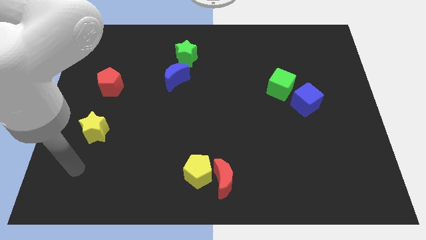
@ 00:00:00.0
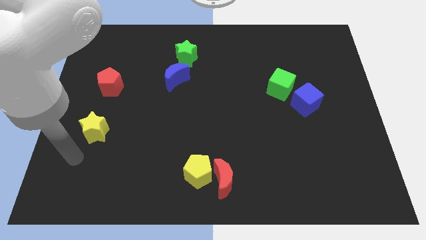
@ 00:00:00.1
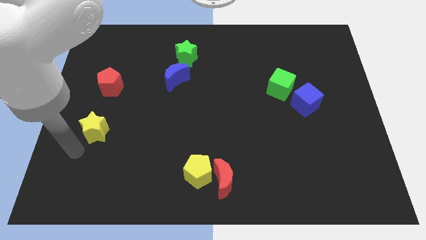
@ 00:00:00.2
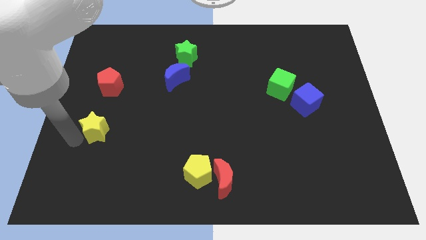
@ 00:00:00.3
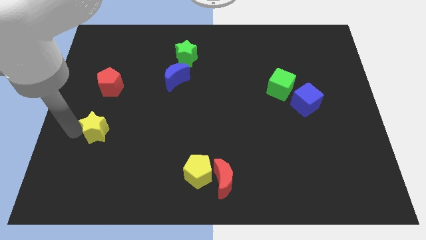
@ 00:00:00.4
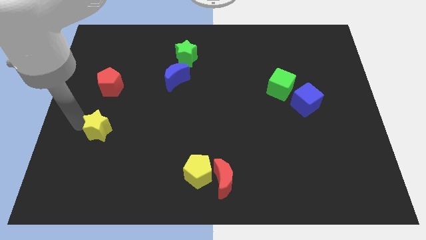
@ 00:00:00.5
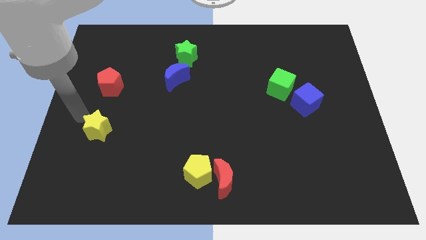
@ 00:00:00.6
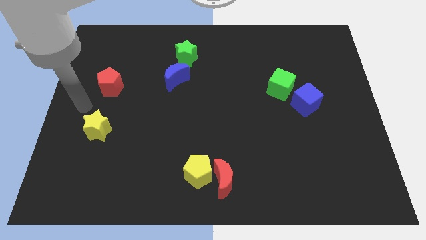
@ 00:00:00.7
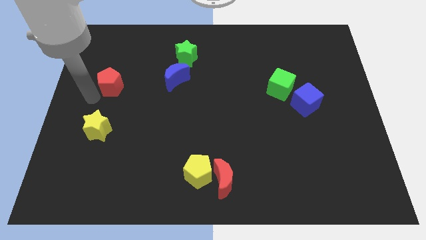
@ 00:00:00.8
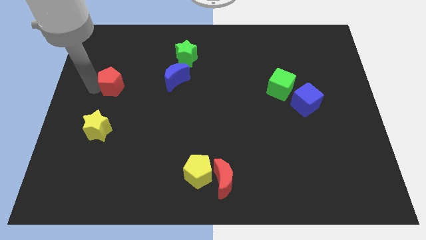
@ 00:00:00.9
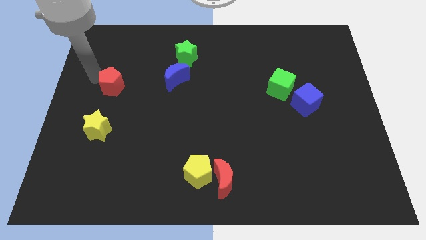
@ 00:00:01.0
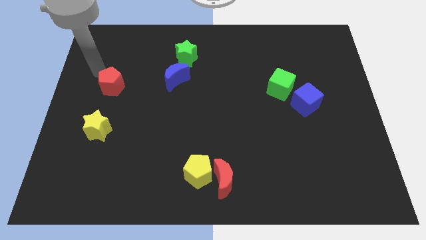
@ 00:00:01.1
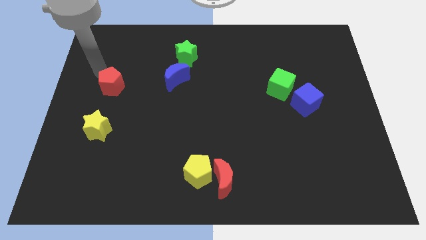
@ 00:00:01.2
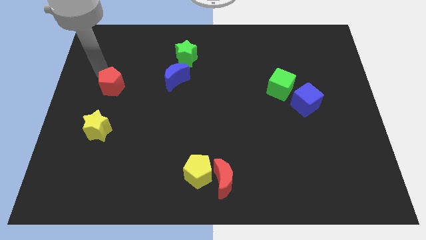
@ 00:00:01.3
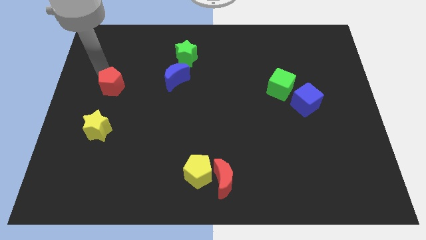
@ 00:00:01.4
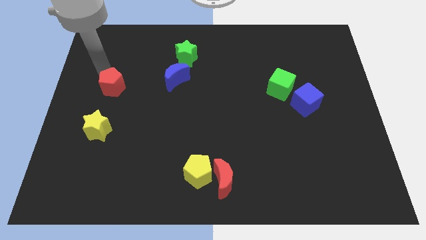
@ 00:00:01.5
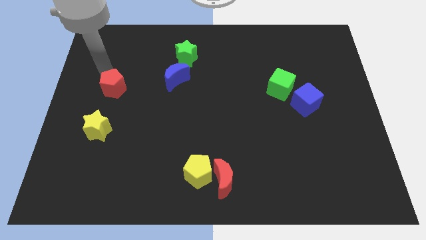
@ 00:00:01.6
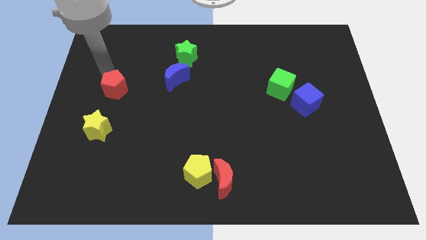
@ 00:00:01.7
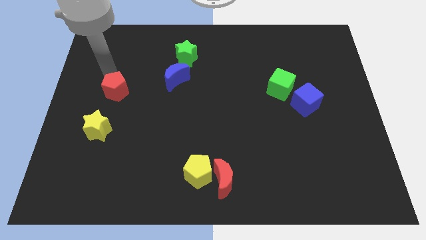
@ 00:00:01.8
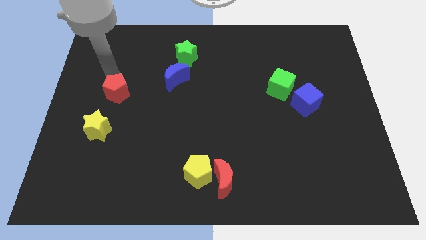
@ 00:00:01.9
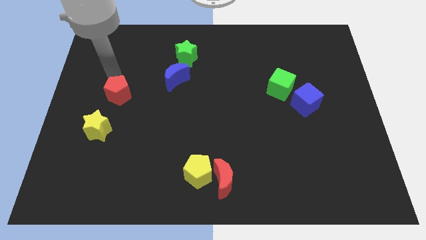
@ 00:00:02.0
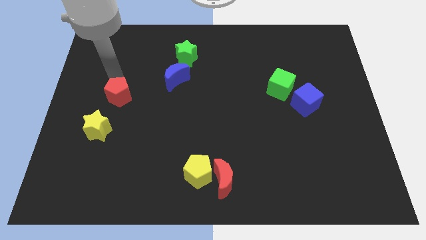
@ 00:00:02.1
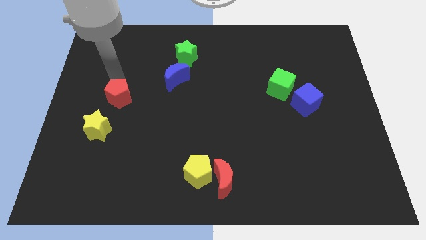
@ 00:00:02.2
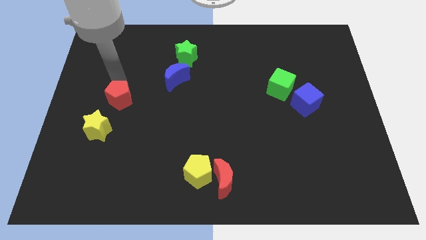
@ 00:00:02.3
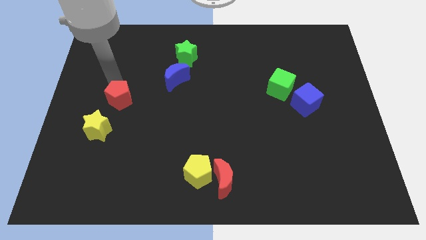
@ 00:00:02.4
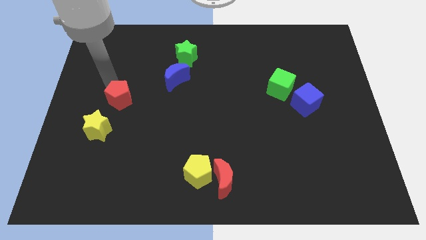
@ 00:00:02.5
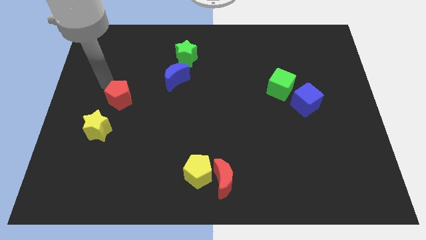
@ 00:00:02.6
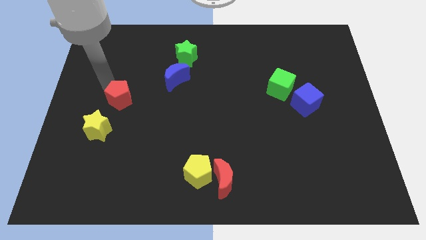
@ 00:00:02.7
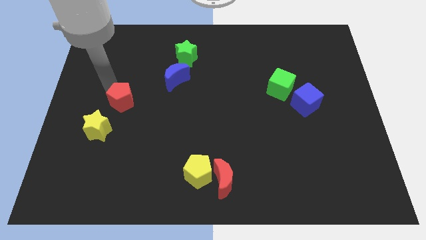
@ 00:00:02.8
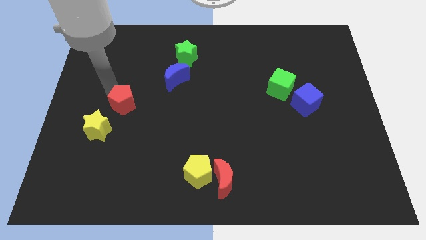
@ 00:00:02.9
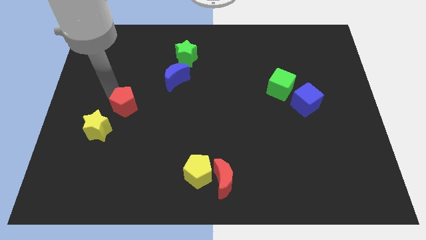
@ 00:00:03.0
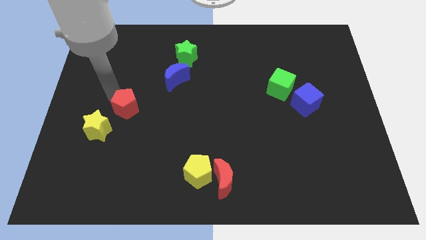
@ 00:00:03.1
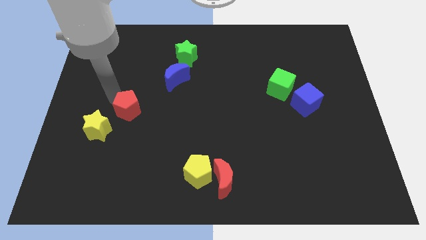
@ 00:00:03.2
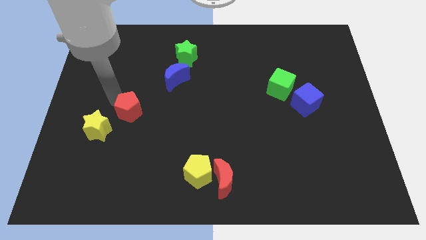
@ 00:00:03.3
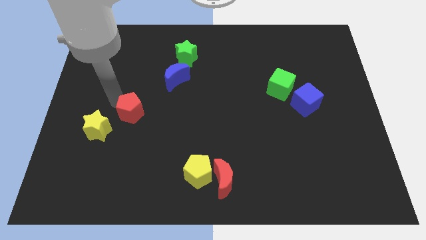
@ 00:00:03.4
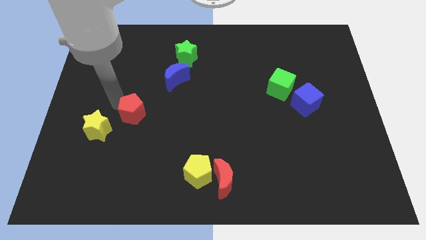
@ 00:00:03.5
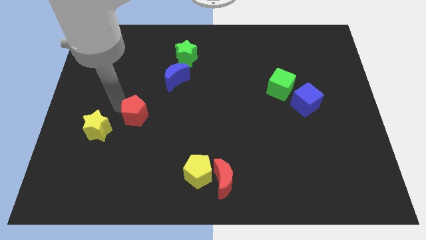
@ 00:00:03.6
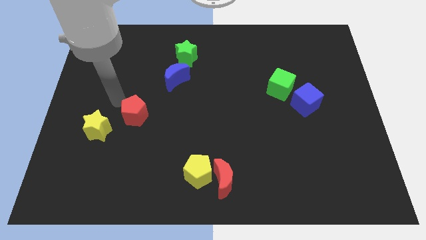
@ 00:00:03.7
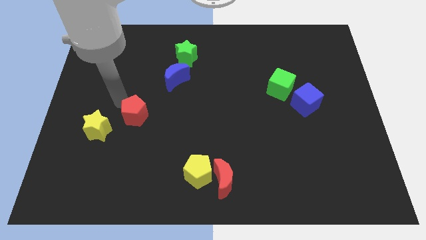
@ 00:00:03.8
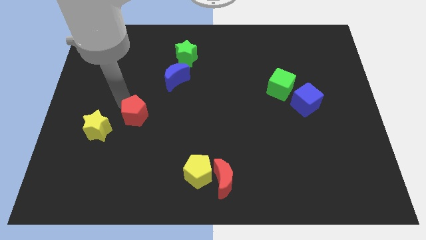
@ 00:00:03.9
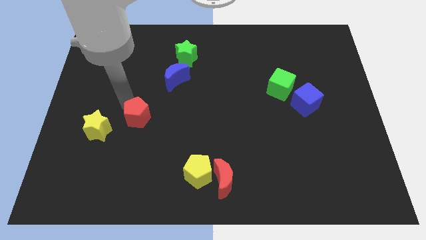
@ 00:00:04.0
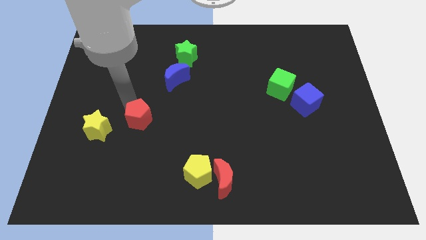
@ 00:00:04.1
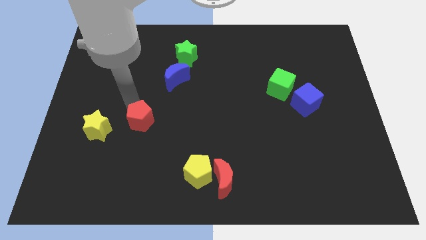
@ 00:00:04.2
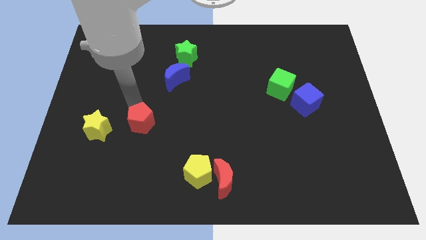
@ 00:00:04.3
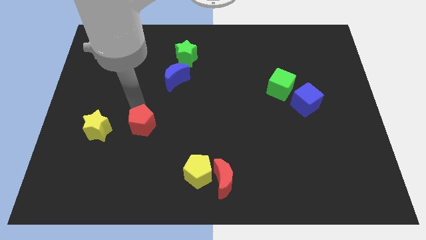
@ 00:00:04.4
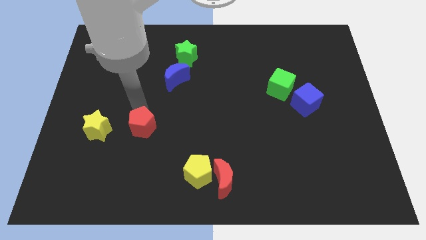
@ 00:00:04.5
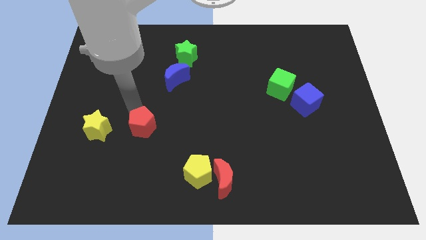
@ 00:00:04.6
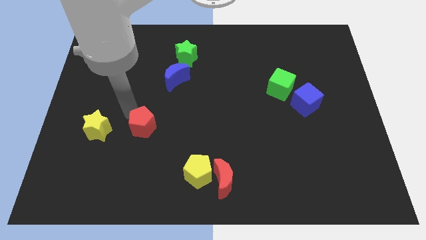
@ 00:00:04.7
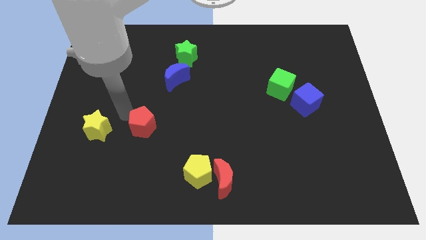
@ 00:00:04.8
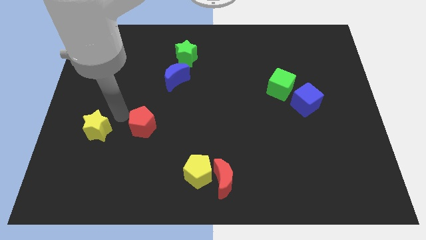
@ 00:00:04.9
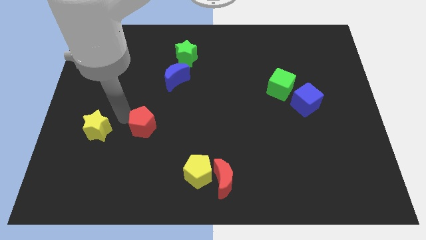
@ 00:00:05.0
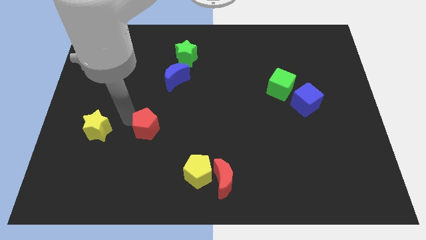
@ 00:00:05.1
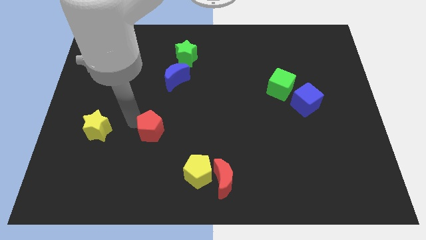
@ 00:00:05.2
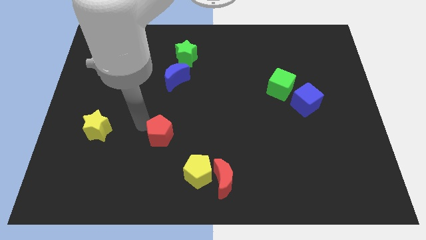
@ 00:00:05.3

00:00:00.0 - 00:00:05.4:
put the red pentagon to the top left of the yellow pentagon

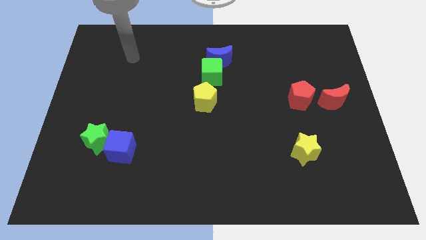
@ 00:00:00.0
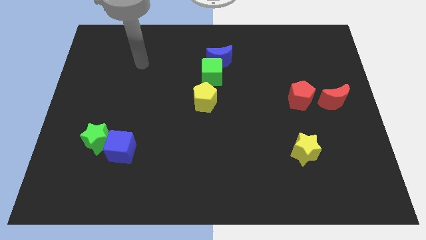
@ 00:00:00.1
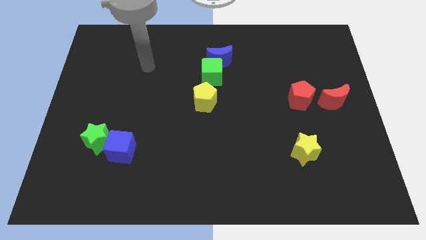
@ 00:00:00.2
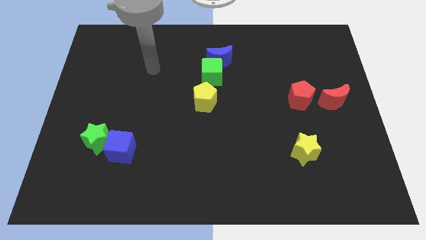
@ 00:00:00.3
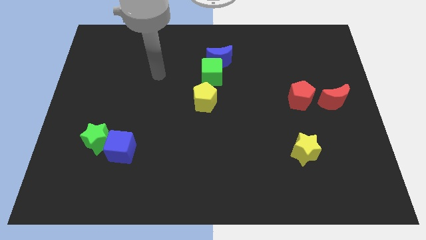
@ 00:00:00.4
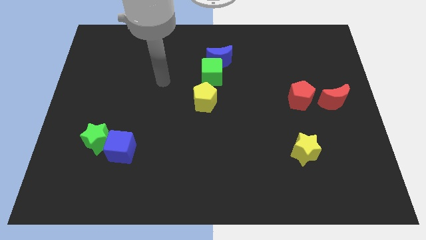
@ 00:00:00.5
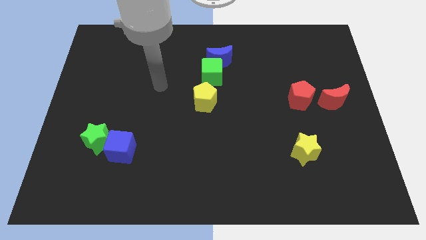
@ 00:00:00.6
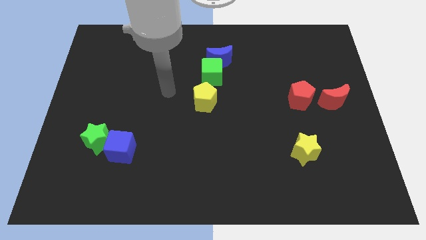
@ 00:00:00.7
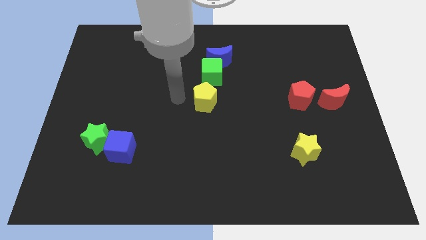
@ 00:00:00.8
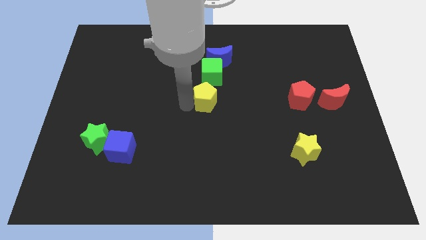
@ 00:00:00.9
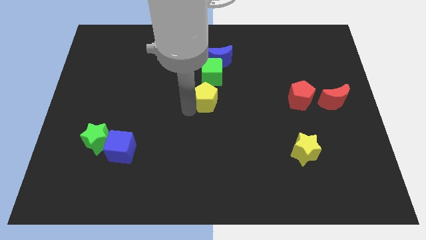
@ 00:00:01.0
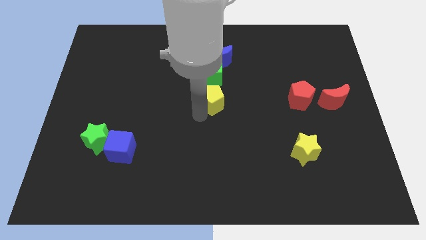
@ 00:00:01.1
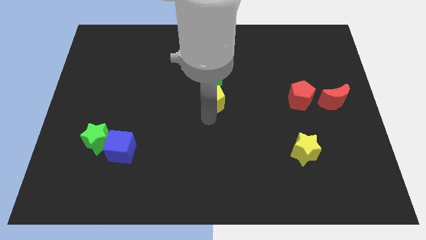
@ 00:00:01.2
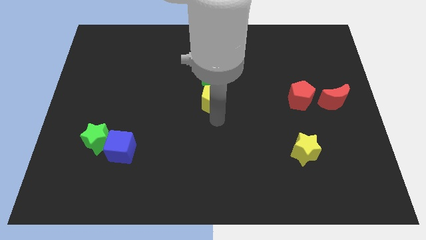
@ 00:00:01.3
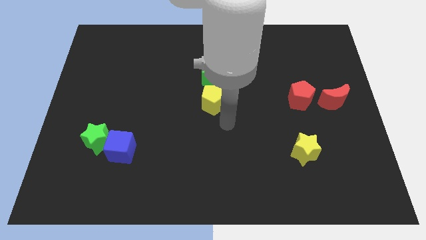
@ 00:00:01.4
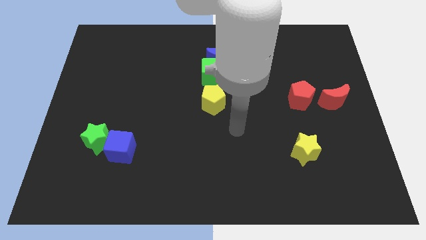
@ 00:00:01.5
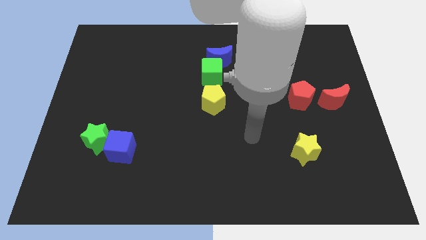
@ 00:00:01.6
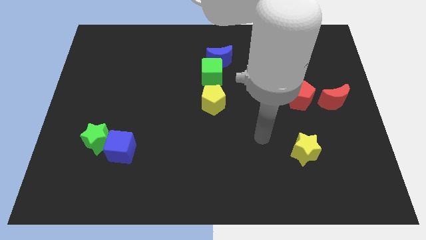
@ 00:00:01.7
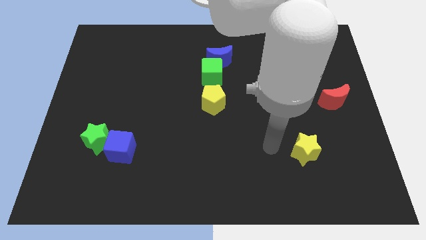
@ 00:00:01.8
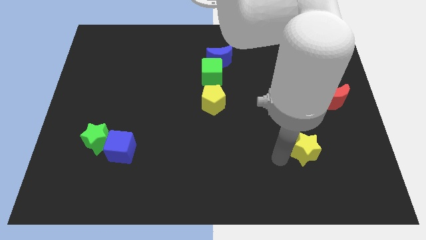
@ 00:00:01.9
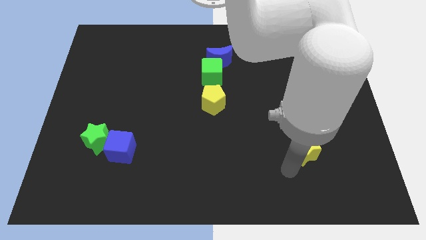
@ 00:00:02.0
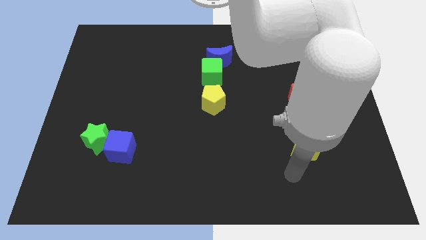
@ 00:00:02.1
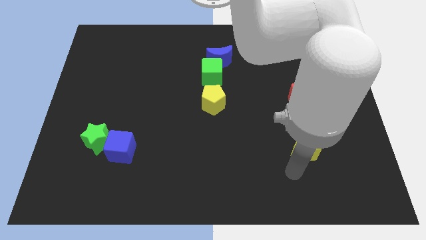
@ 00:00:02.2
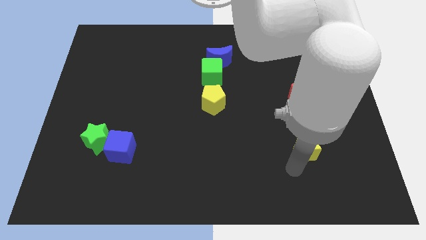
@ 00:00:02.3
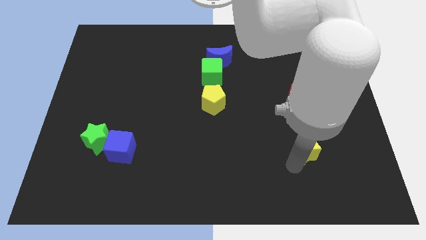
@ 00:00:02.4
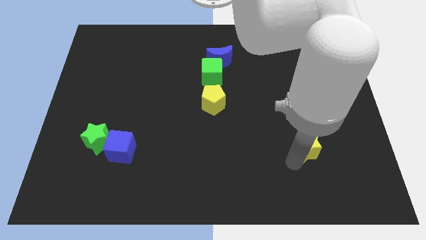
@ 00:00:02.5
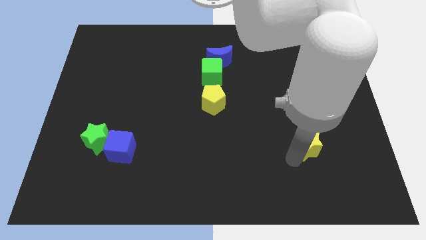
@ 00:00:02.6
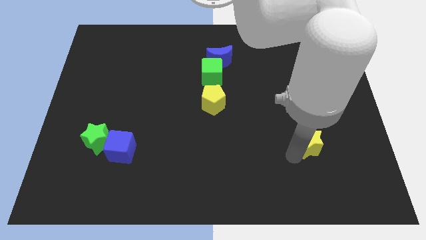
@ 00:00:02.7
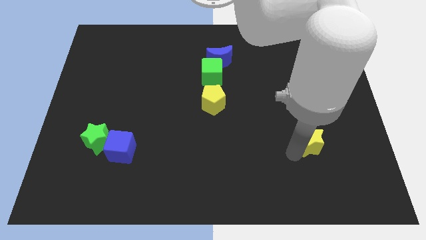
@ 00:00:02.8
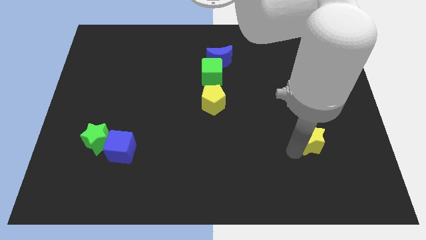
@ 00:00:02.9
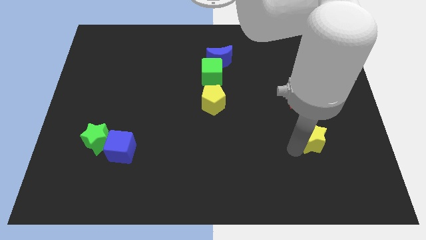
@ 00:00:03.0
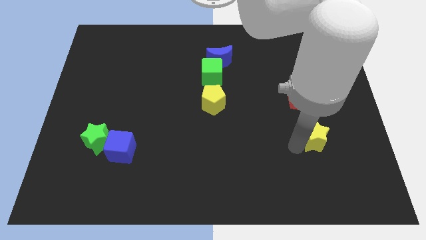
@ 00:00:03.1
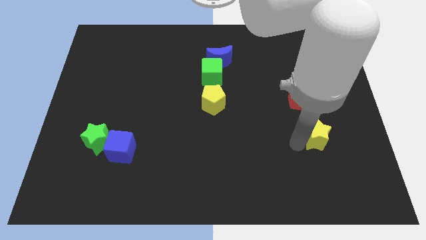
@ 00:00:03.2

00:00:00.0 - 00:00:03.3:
move the yellow star to the bottom left of the red moon
